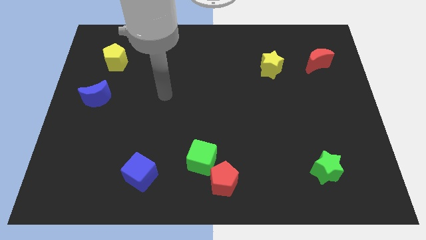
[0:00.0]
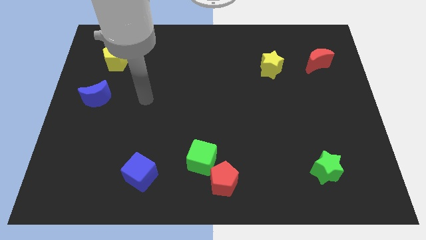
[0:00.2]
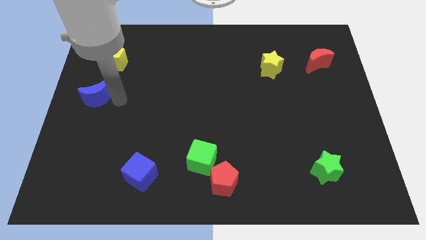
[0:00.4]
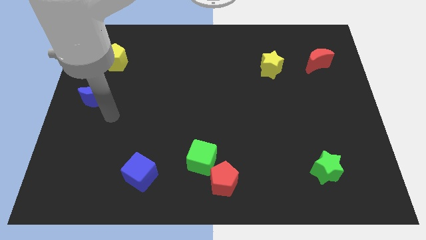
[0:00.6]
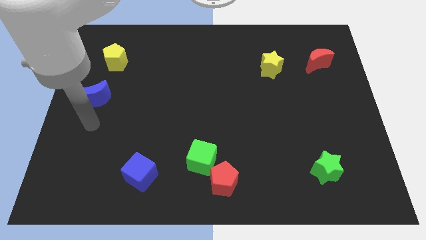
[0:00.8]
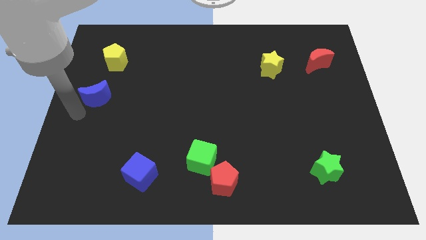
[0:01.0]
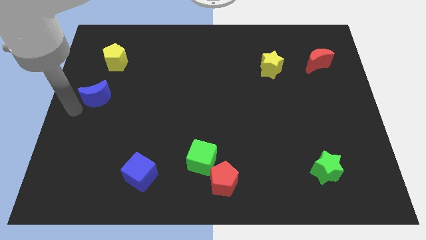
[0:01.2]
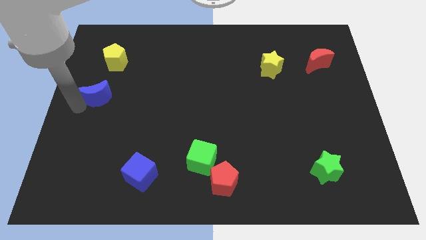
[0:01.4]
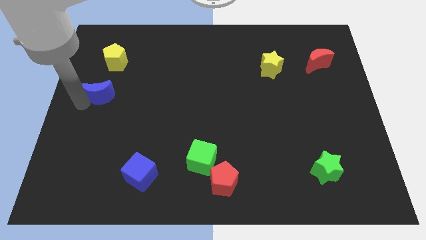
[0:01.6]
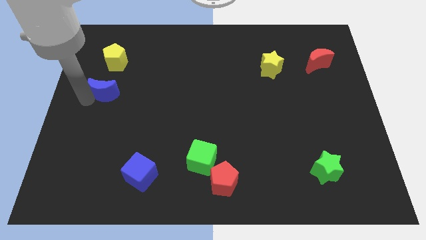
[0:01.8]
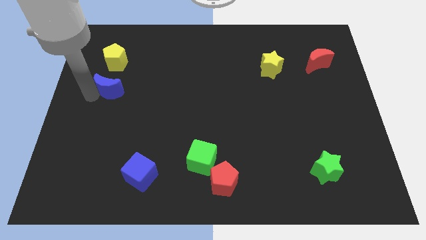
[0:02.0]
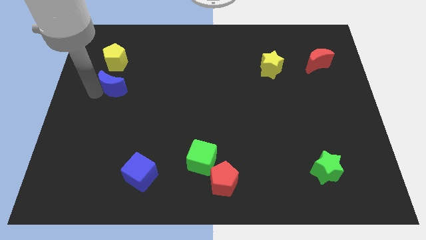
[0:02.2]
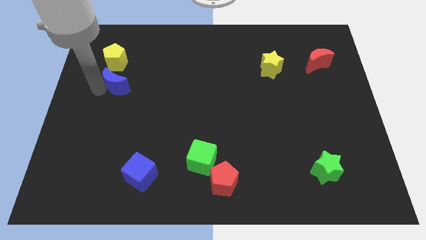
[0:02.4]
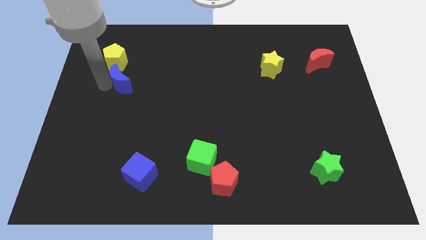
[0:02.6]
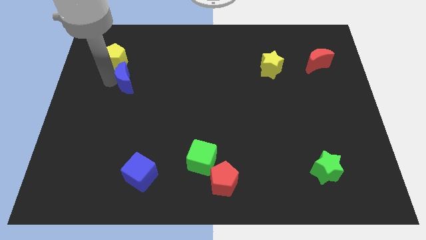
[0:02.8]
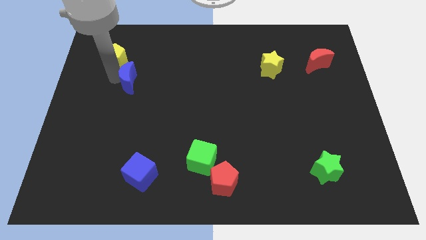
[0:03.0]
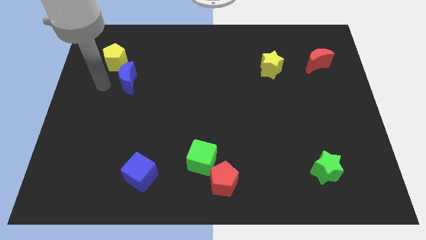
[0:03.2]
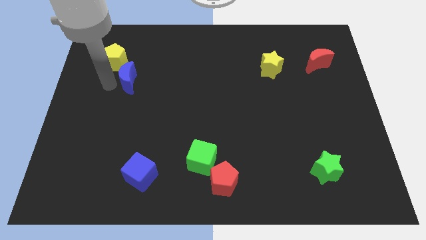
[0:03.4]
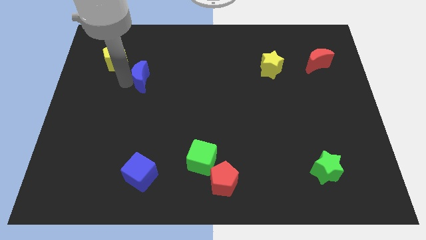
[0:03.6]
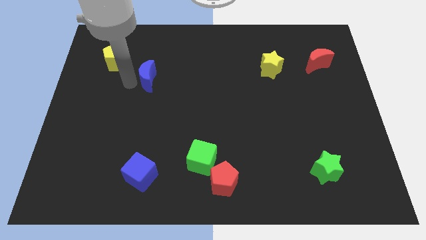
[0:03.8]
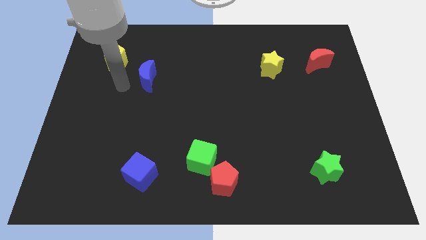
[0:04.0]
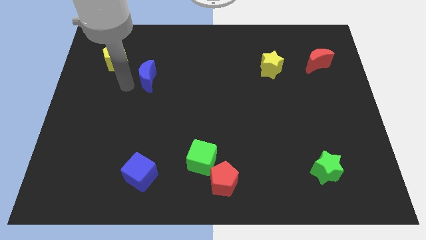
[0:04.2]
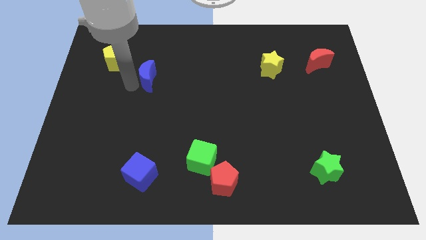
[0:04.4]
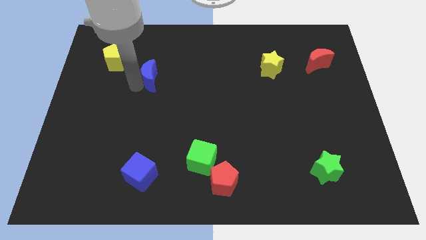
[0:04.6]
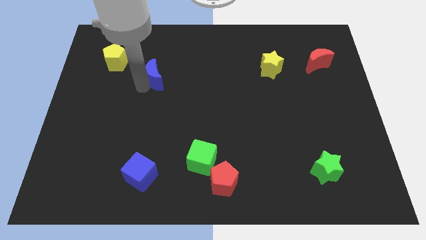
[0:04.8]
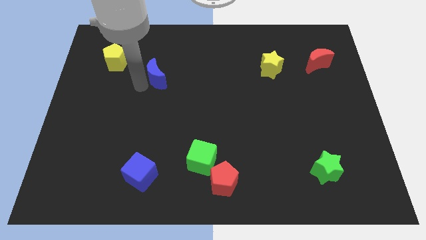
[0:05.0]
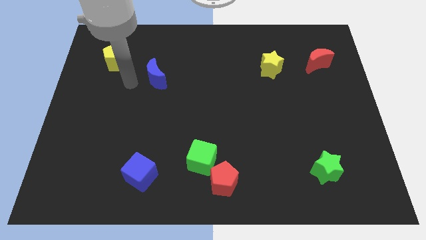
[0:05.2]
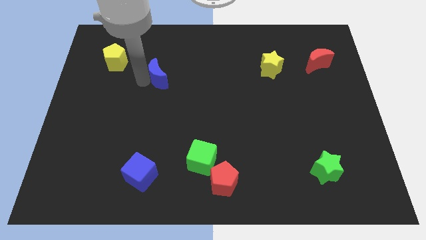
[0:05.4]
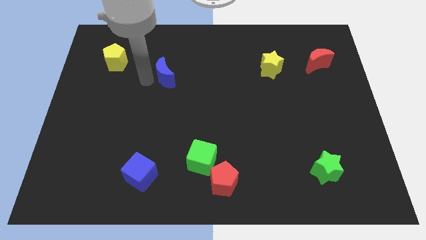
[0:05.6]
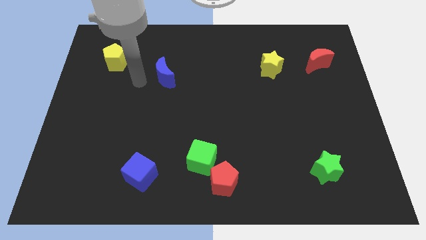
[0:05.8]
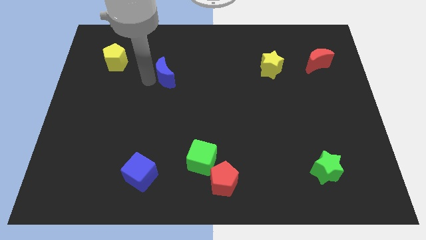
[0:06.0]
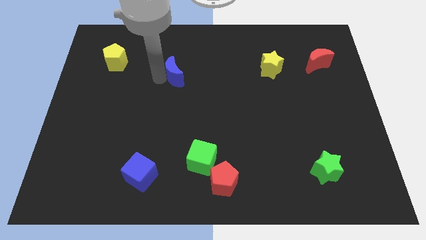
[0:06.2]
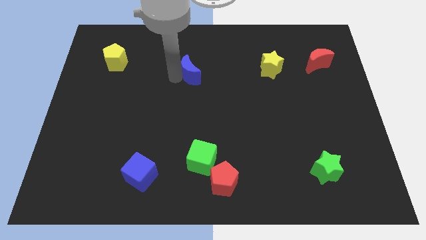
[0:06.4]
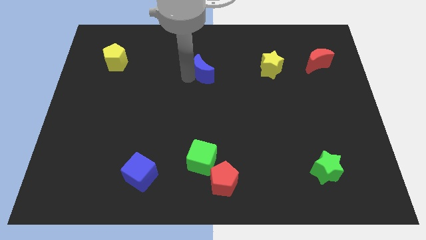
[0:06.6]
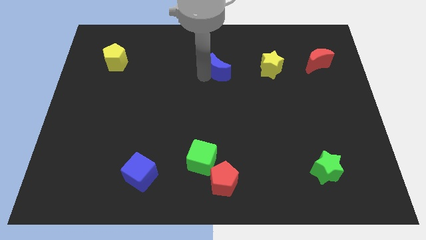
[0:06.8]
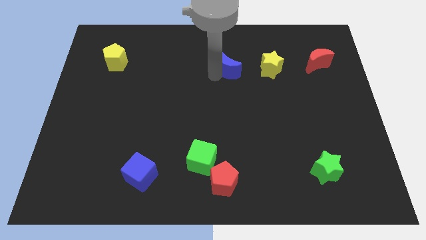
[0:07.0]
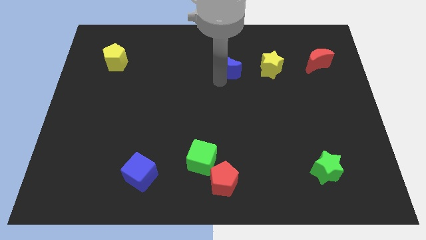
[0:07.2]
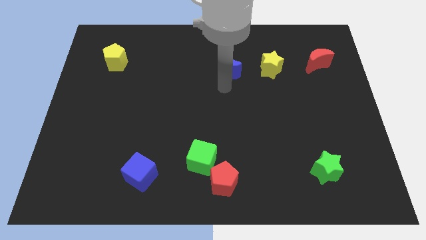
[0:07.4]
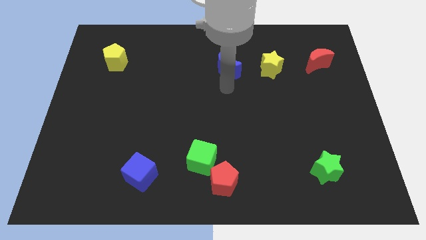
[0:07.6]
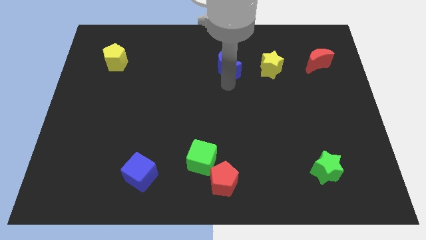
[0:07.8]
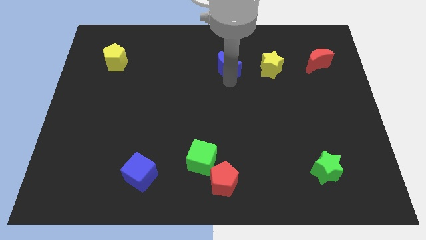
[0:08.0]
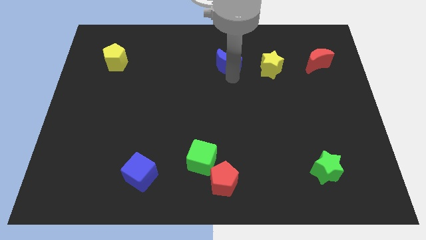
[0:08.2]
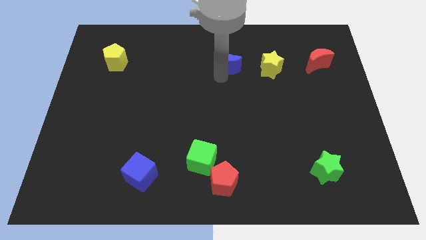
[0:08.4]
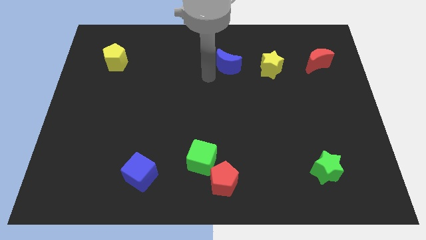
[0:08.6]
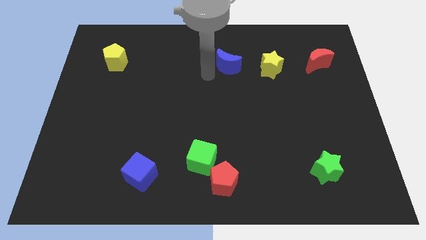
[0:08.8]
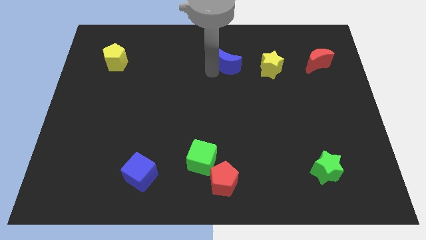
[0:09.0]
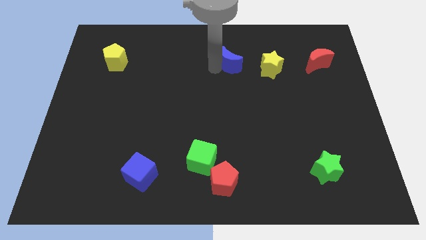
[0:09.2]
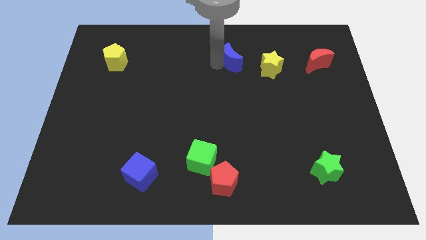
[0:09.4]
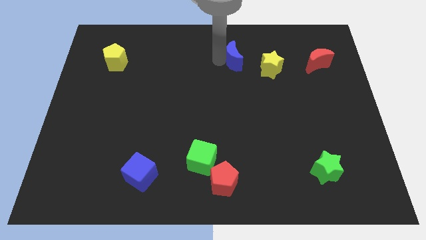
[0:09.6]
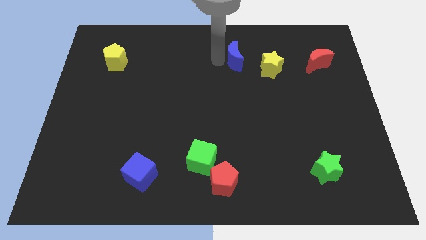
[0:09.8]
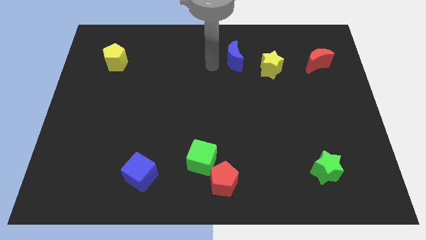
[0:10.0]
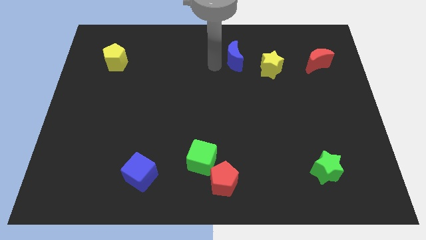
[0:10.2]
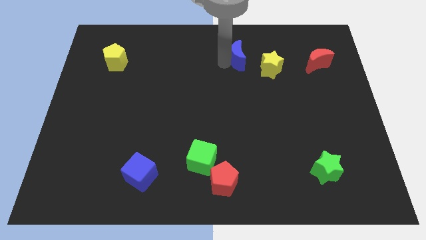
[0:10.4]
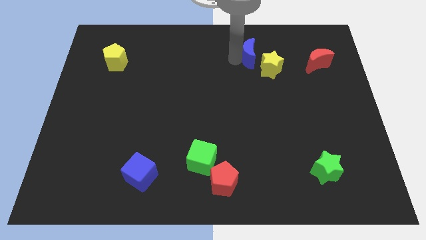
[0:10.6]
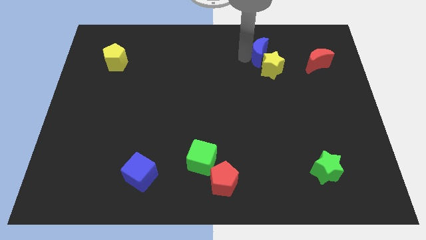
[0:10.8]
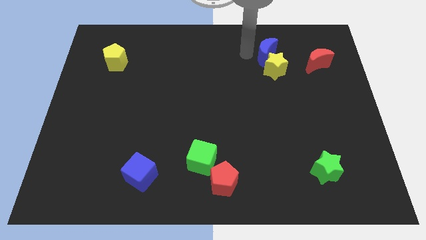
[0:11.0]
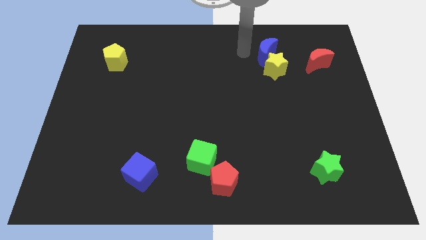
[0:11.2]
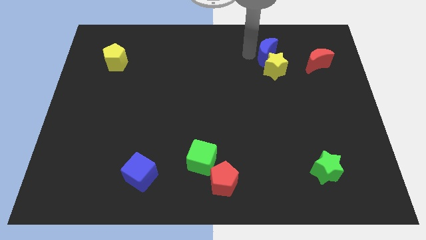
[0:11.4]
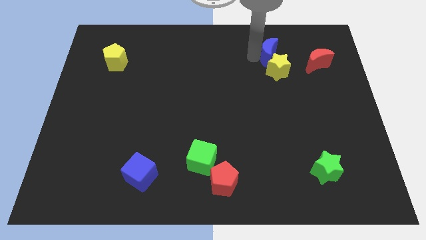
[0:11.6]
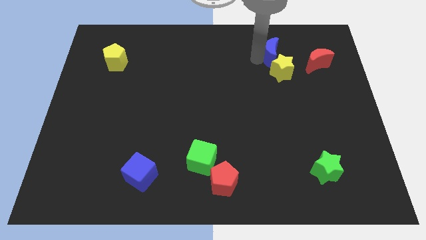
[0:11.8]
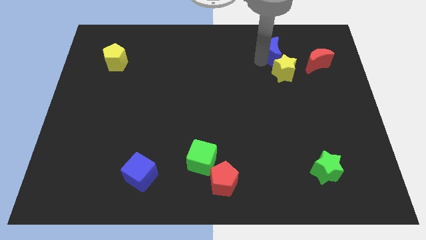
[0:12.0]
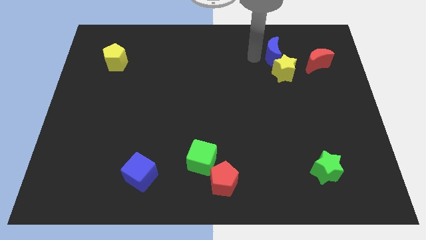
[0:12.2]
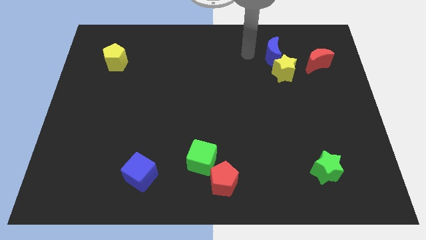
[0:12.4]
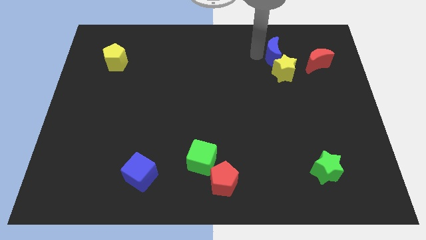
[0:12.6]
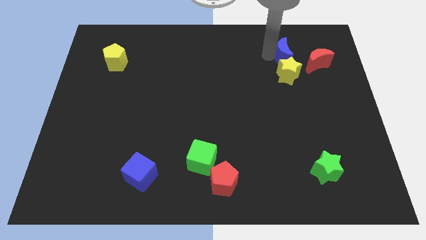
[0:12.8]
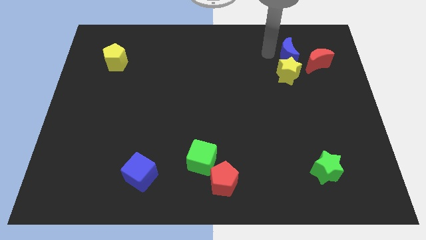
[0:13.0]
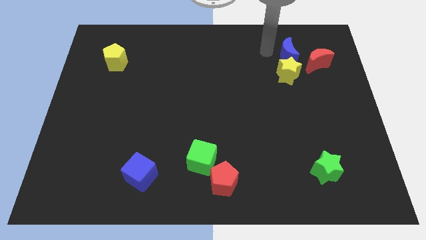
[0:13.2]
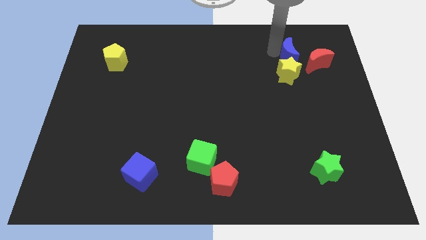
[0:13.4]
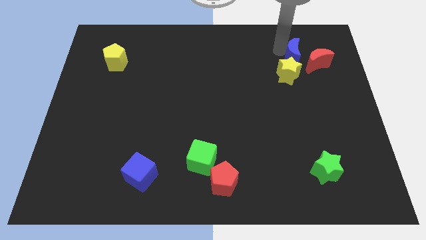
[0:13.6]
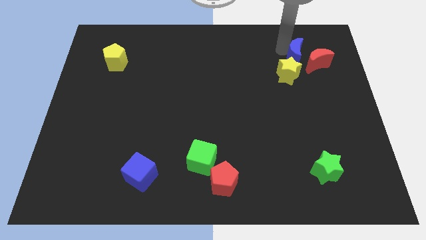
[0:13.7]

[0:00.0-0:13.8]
put the blue moon next to the red moon
